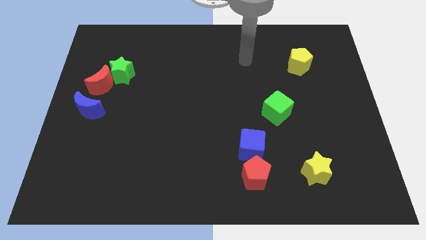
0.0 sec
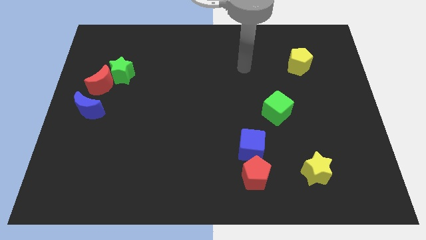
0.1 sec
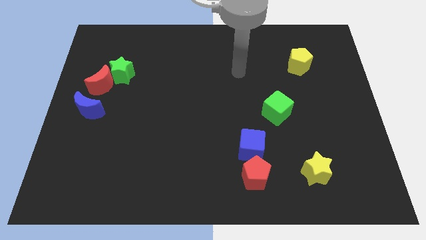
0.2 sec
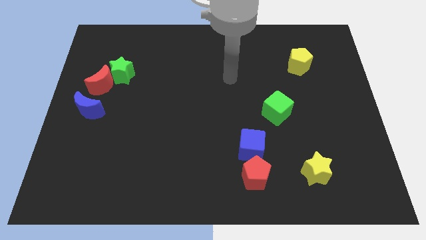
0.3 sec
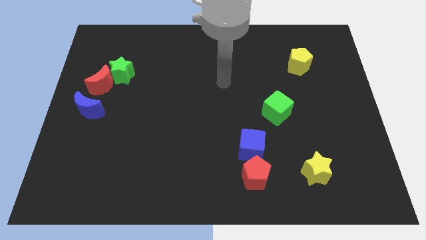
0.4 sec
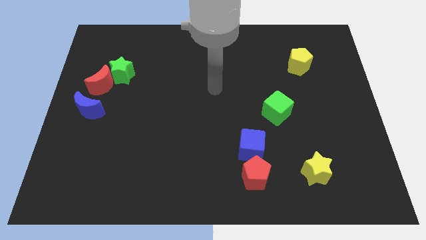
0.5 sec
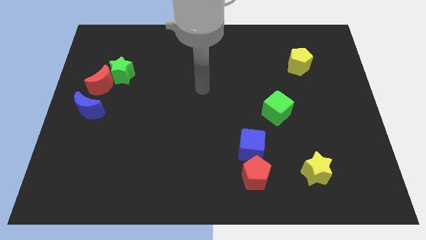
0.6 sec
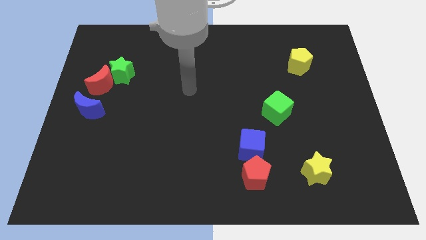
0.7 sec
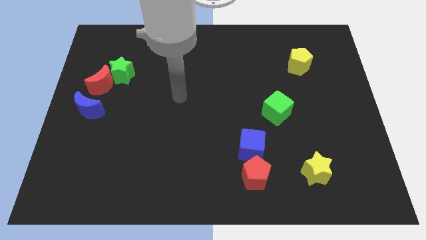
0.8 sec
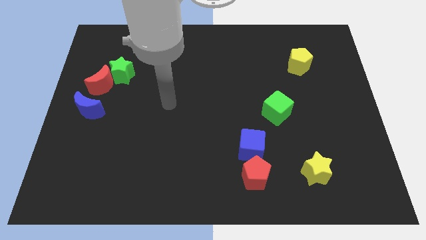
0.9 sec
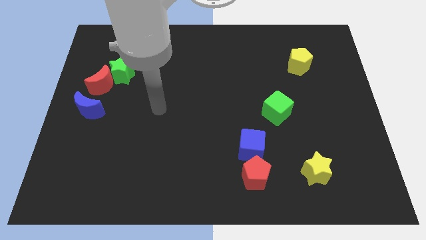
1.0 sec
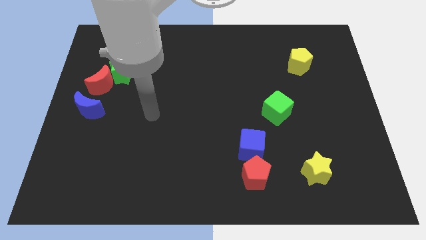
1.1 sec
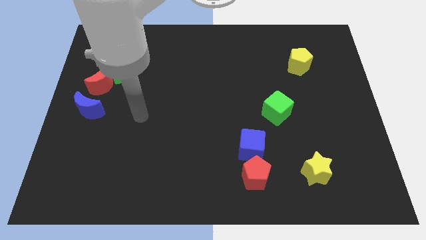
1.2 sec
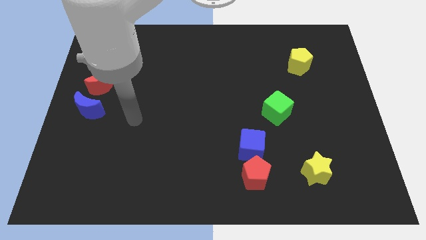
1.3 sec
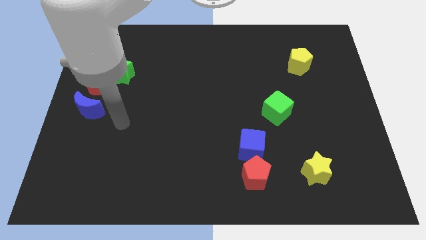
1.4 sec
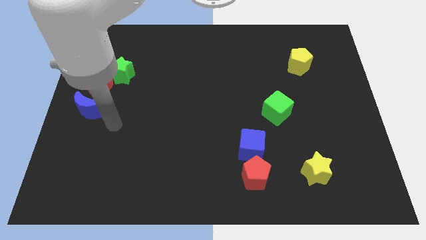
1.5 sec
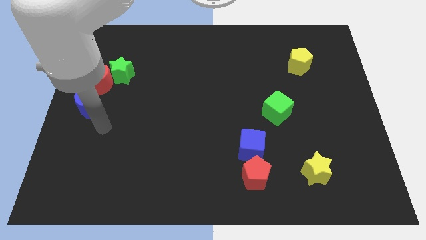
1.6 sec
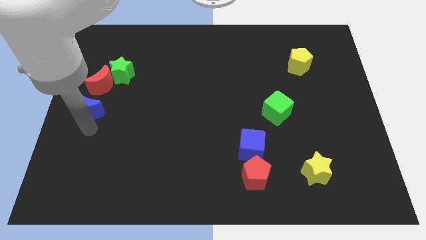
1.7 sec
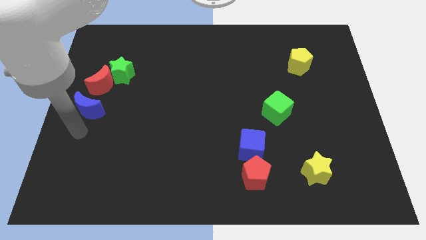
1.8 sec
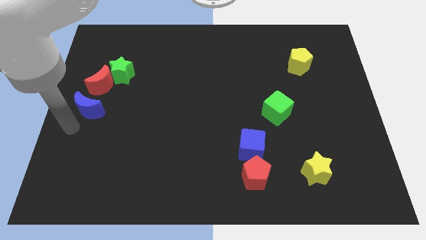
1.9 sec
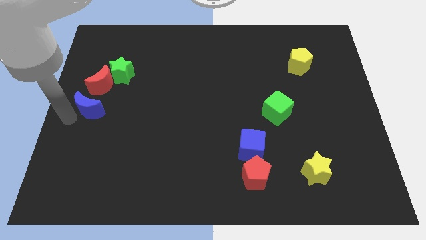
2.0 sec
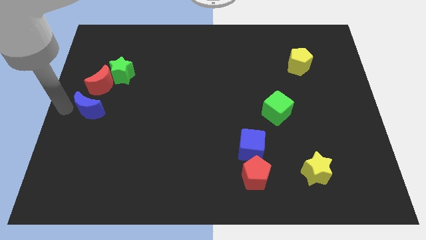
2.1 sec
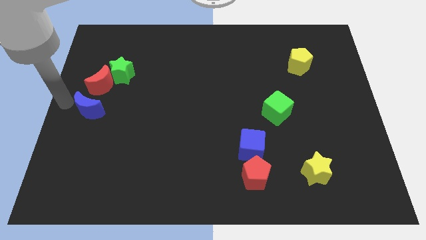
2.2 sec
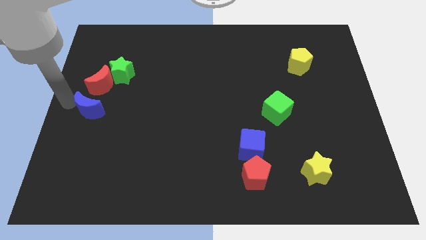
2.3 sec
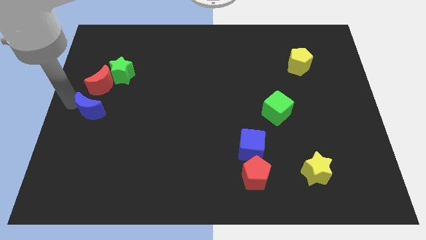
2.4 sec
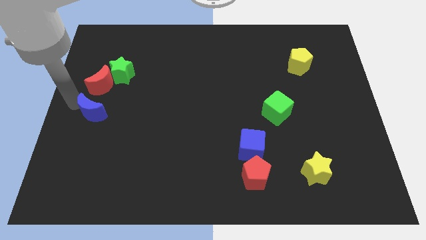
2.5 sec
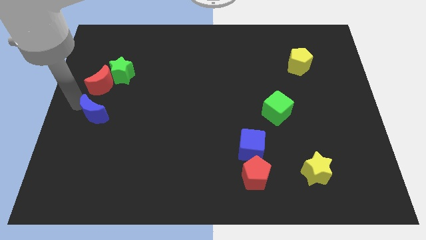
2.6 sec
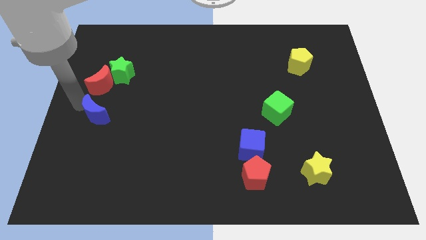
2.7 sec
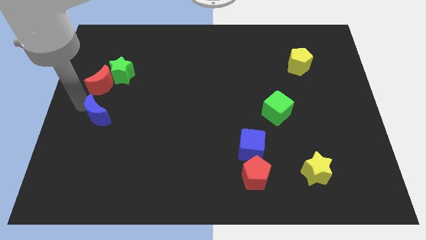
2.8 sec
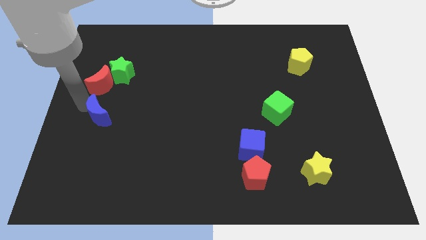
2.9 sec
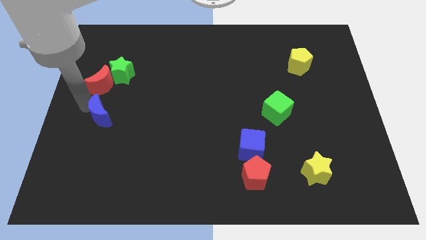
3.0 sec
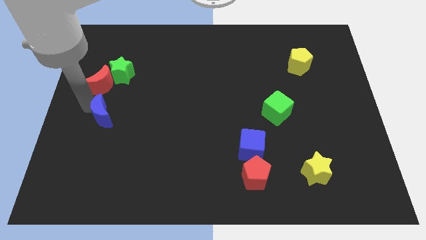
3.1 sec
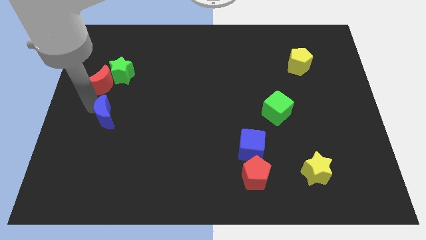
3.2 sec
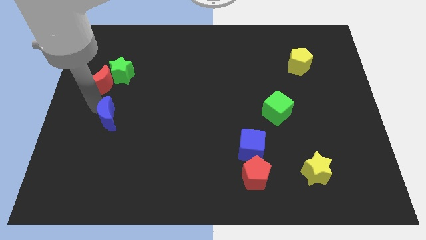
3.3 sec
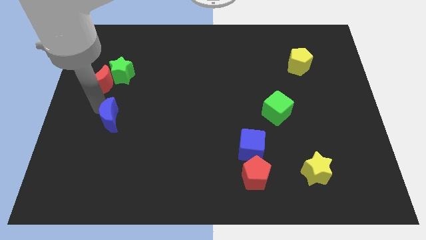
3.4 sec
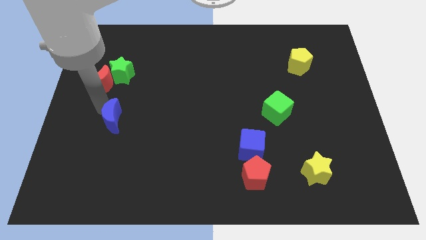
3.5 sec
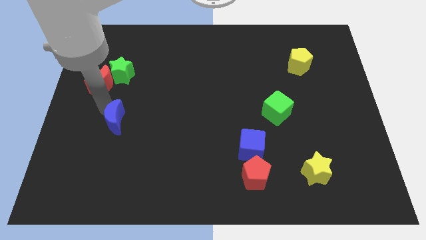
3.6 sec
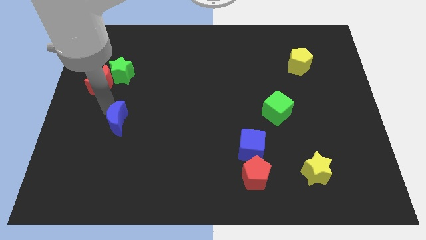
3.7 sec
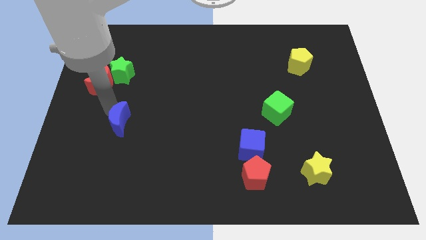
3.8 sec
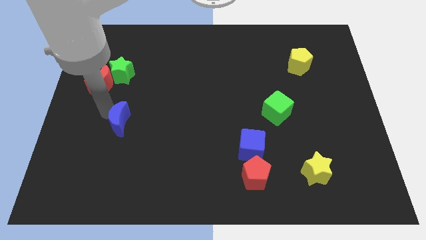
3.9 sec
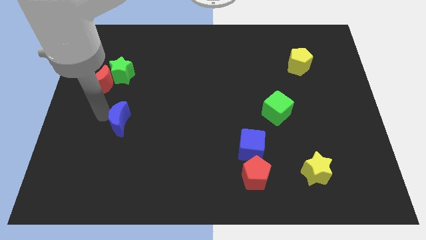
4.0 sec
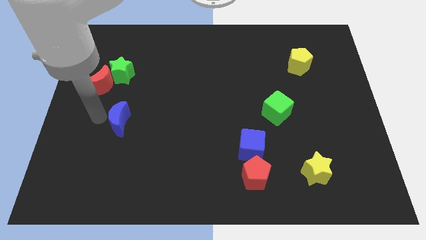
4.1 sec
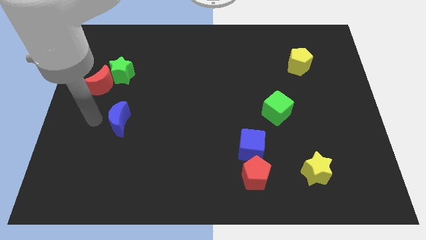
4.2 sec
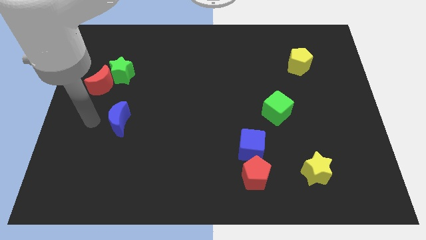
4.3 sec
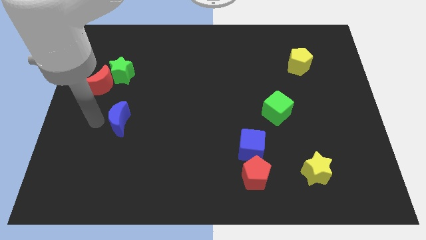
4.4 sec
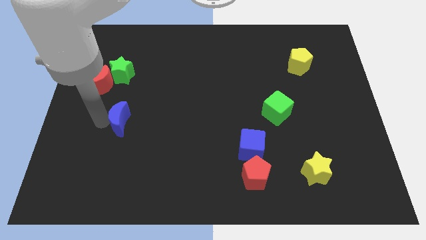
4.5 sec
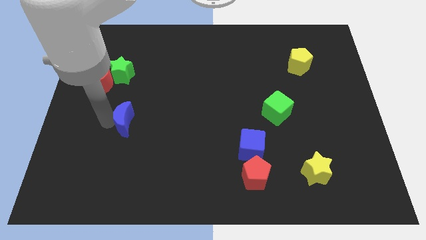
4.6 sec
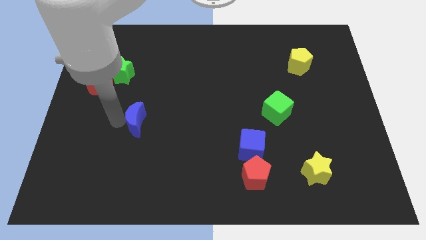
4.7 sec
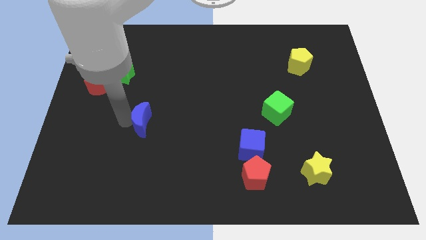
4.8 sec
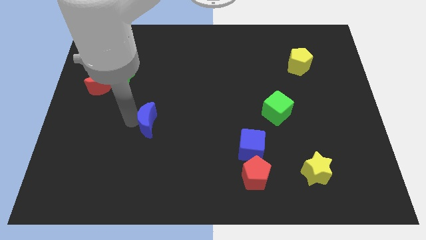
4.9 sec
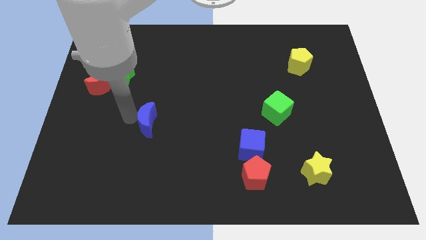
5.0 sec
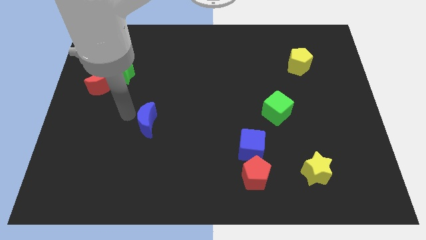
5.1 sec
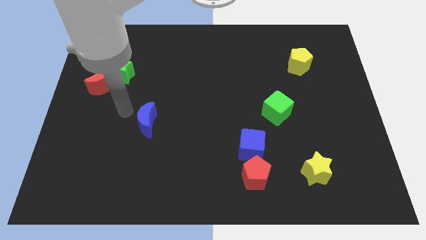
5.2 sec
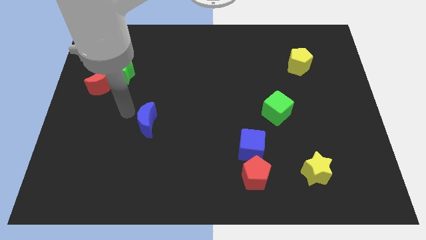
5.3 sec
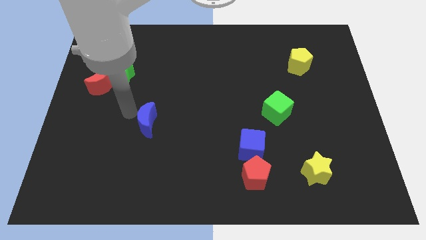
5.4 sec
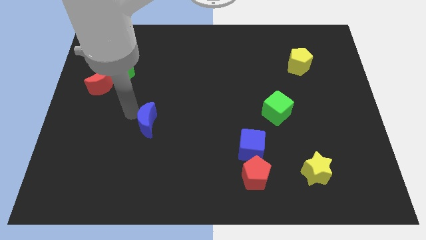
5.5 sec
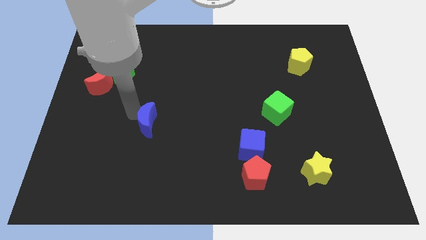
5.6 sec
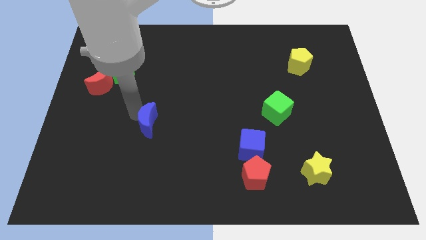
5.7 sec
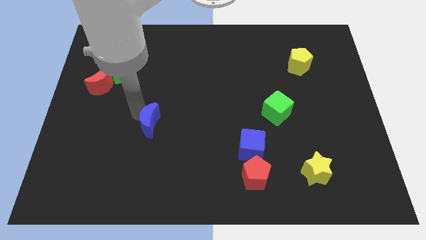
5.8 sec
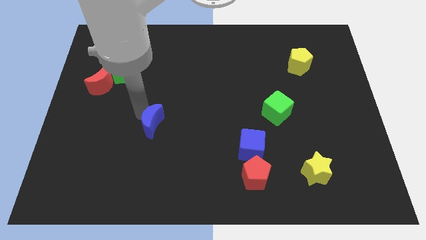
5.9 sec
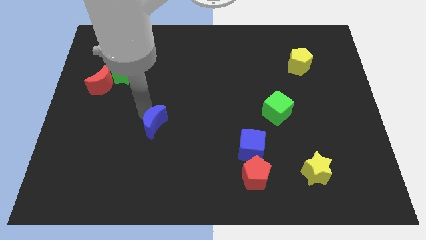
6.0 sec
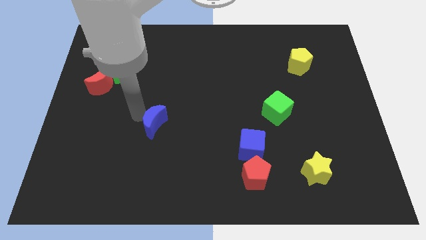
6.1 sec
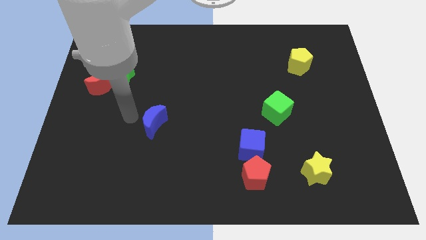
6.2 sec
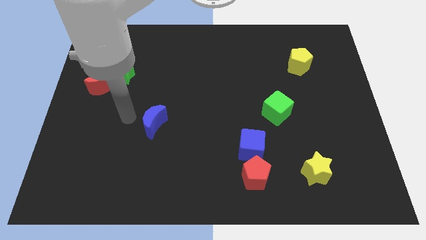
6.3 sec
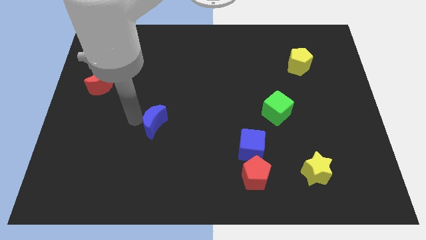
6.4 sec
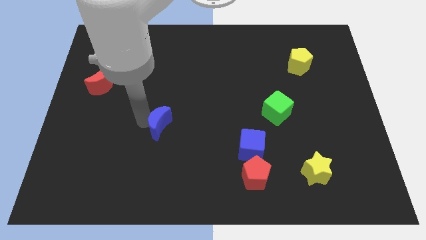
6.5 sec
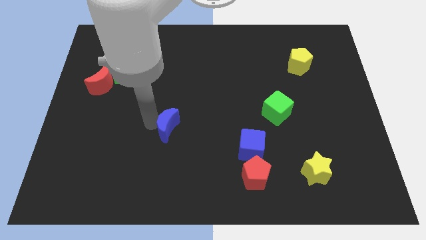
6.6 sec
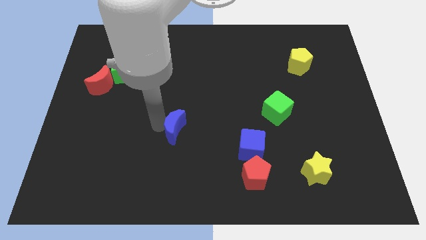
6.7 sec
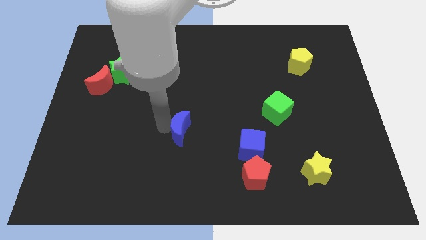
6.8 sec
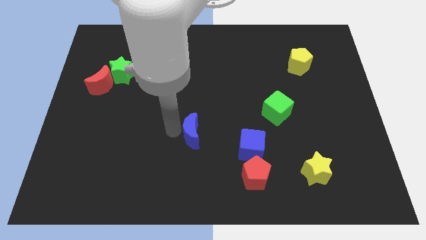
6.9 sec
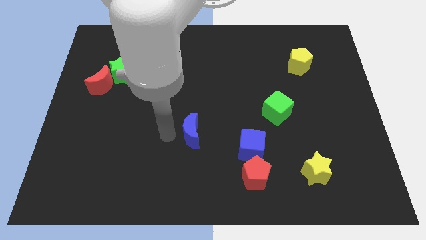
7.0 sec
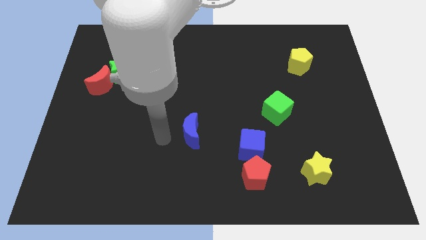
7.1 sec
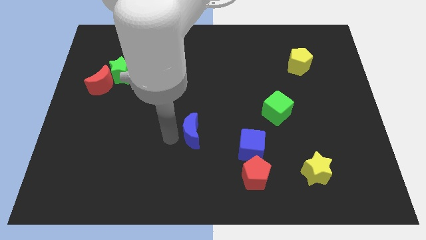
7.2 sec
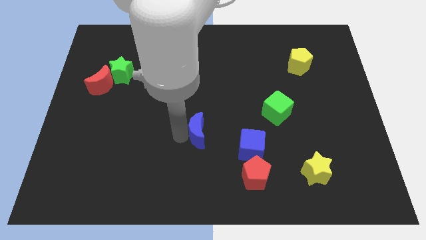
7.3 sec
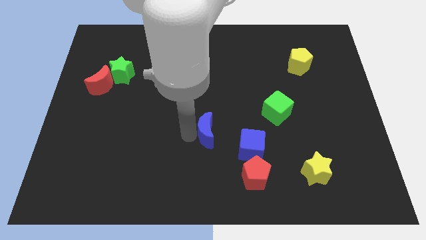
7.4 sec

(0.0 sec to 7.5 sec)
slide the blue moon to the top left side of the blue cube
